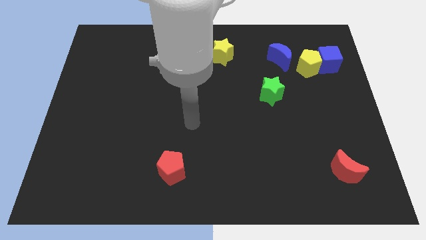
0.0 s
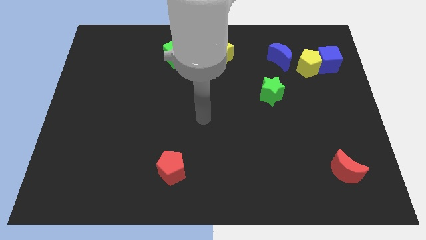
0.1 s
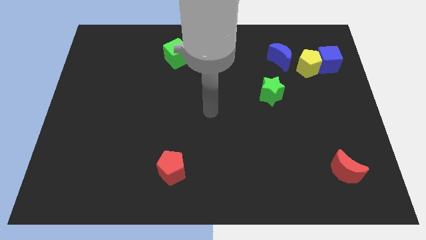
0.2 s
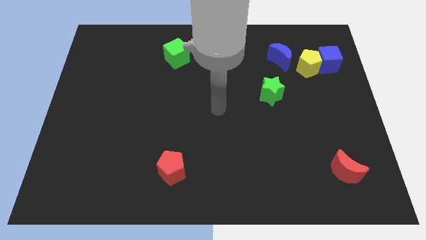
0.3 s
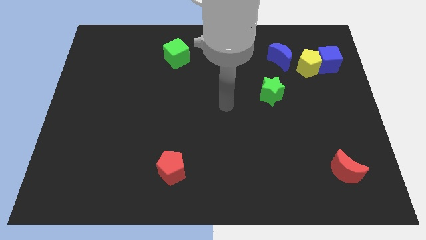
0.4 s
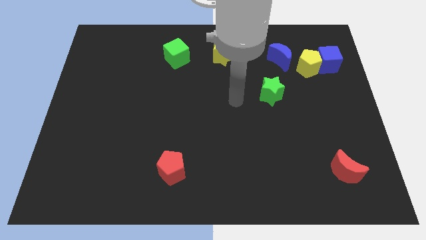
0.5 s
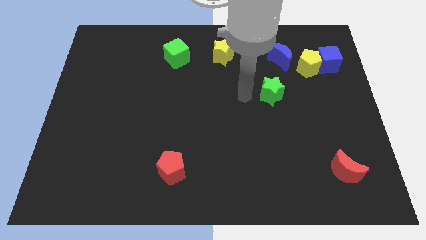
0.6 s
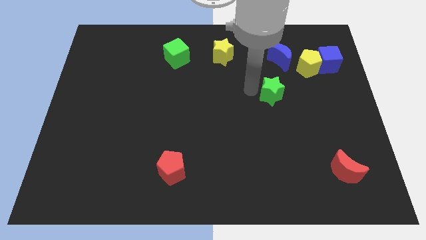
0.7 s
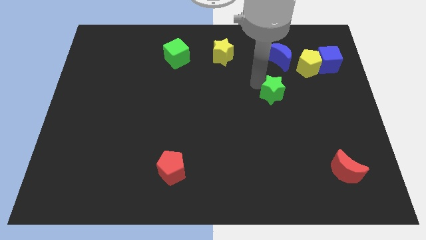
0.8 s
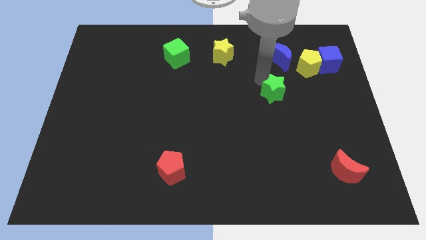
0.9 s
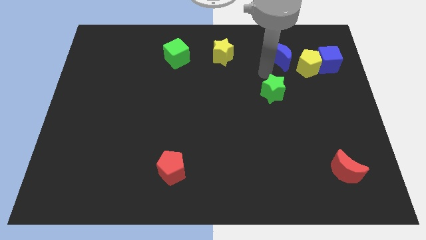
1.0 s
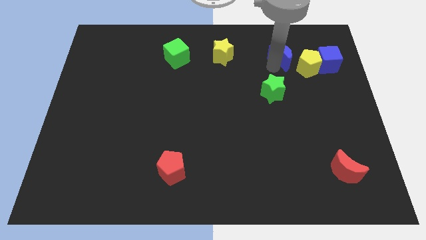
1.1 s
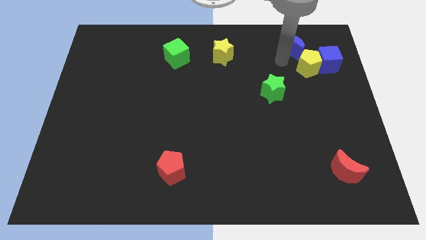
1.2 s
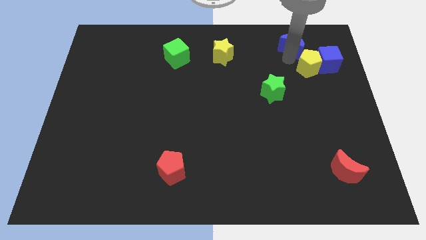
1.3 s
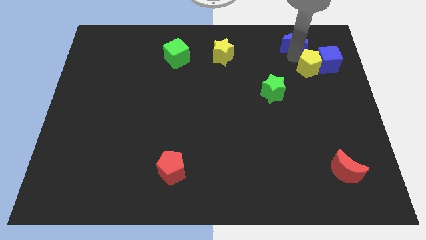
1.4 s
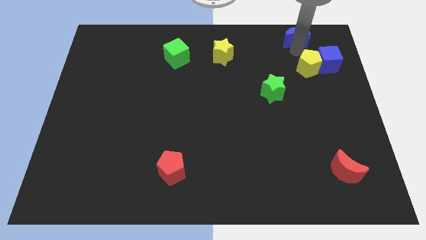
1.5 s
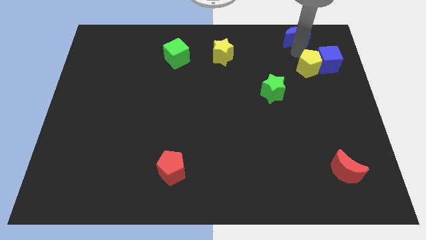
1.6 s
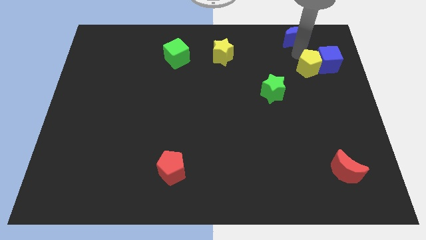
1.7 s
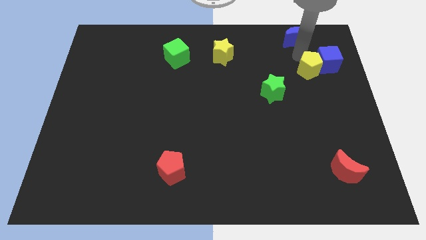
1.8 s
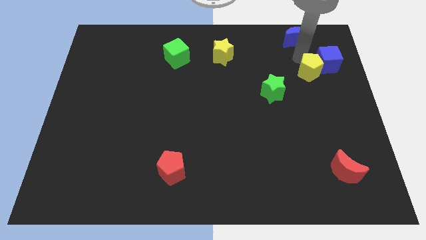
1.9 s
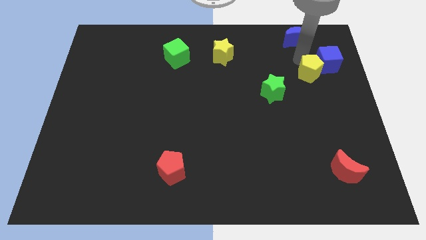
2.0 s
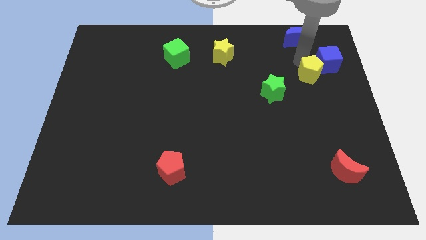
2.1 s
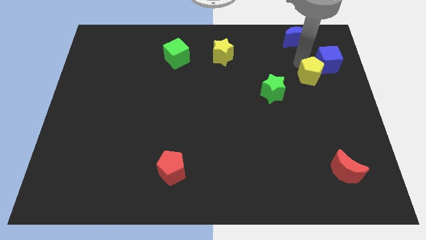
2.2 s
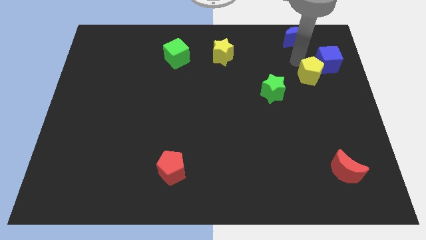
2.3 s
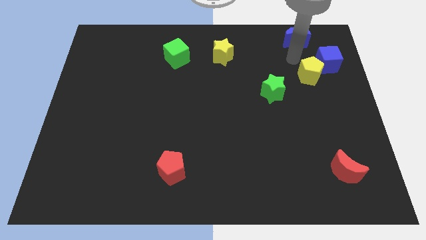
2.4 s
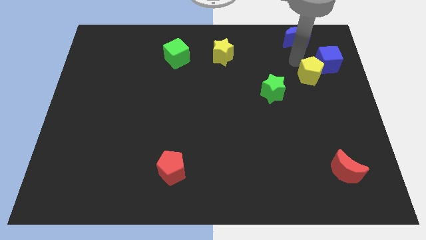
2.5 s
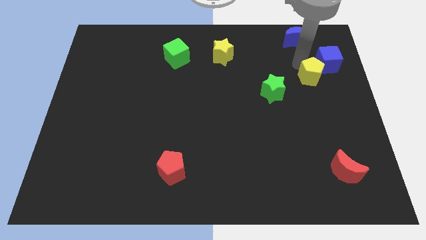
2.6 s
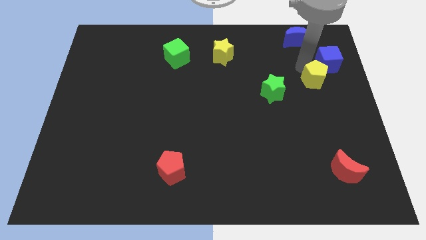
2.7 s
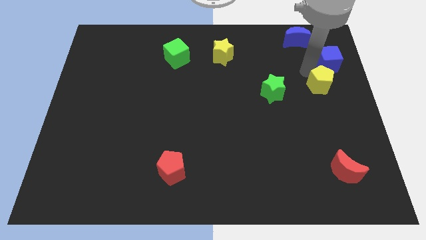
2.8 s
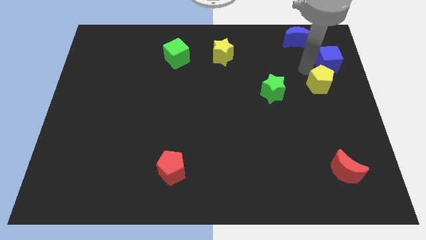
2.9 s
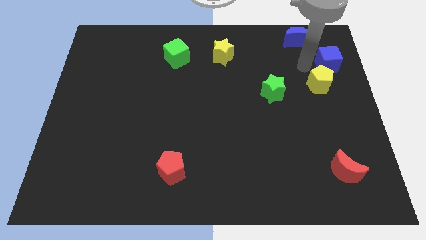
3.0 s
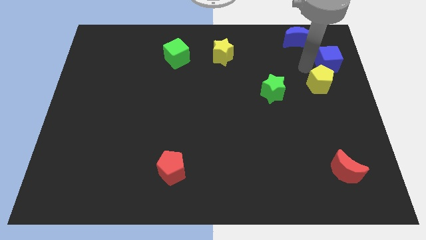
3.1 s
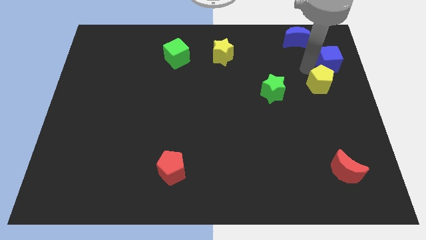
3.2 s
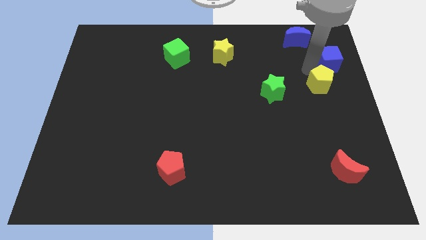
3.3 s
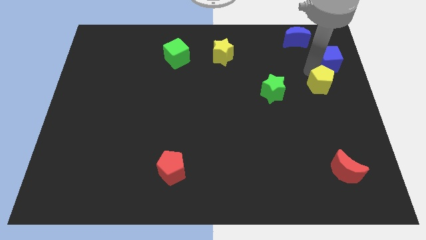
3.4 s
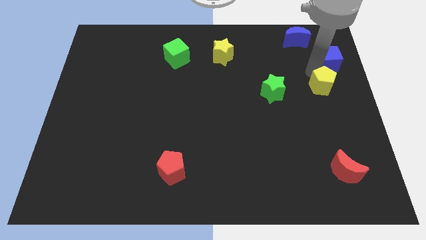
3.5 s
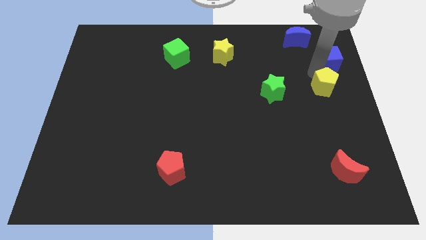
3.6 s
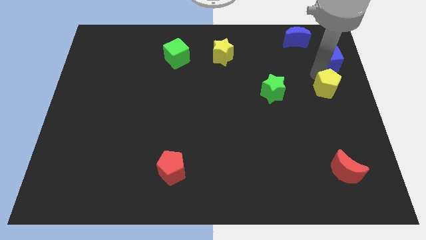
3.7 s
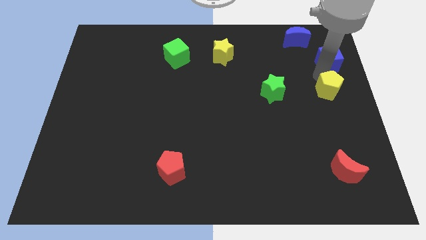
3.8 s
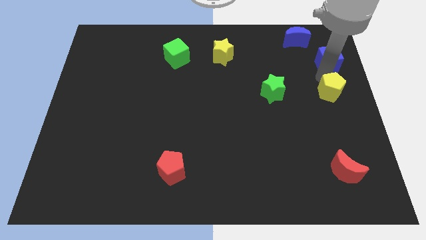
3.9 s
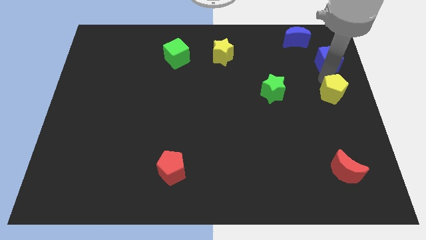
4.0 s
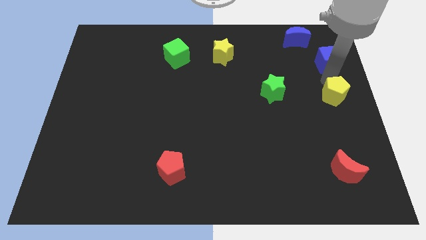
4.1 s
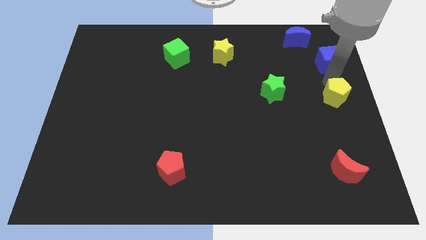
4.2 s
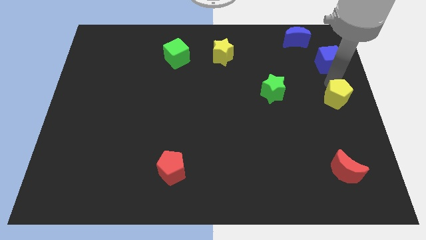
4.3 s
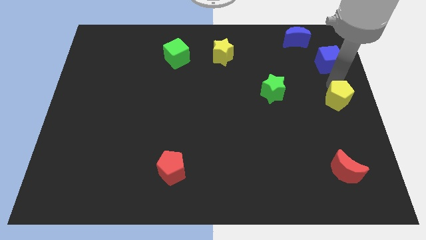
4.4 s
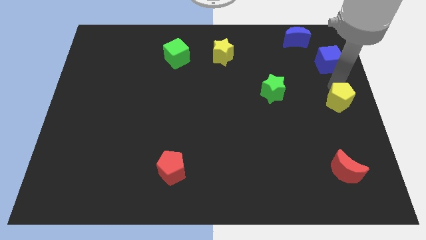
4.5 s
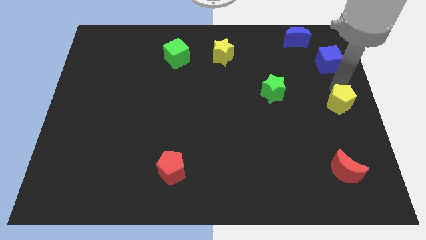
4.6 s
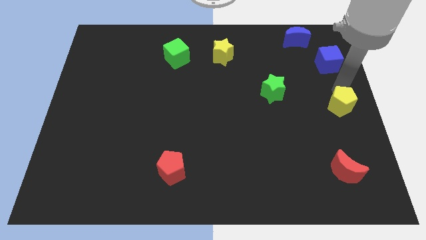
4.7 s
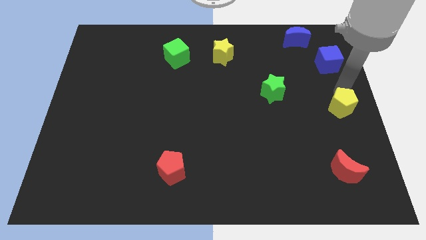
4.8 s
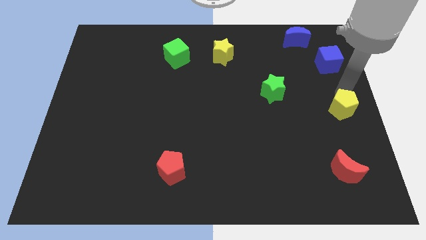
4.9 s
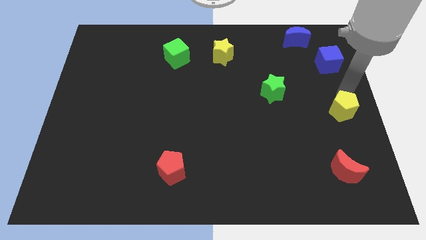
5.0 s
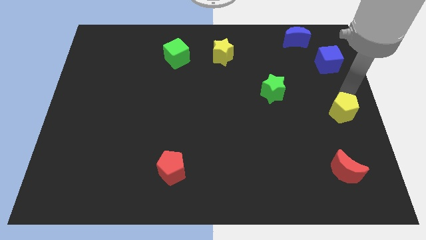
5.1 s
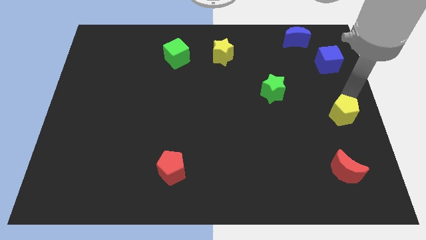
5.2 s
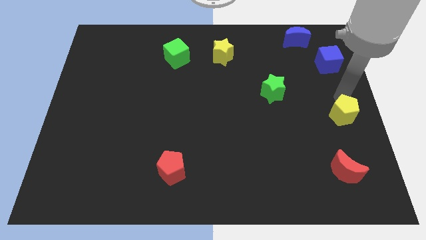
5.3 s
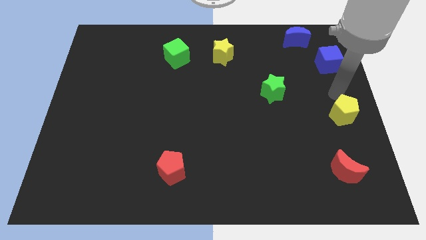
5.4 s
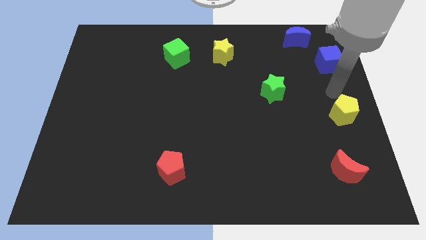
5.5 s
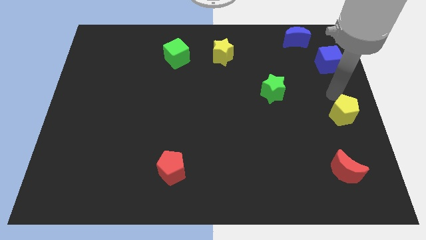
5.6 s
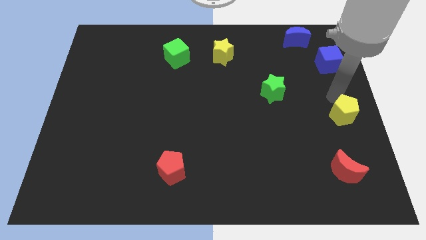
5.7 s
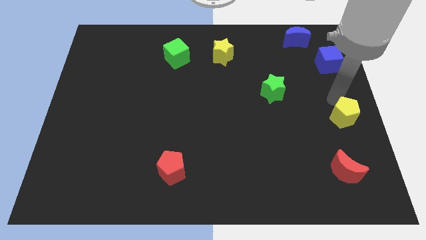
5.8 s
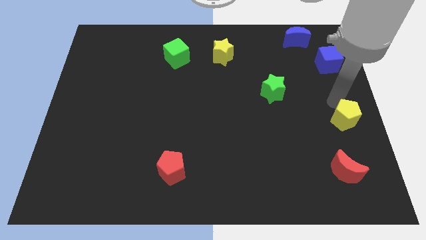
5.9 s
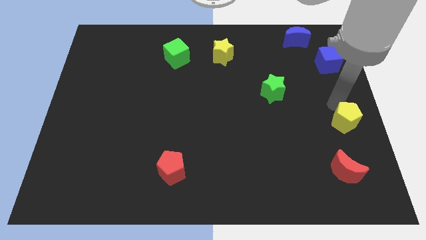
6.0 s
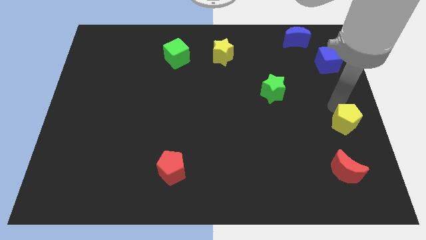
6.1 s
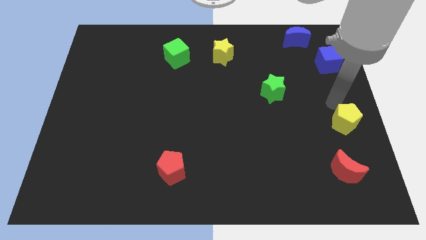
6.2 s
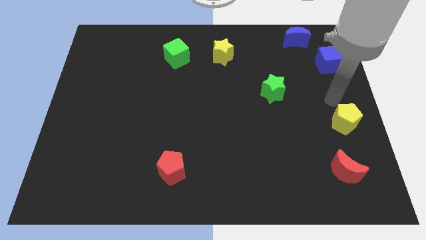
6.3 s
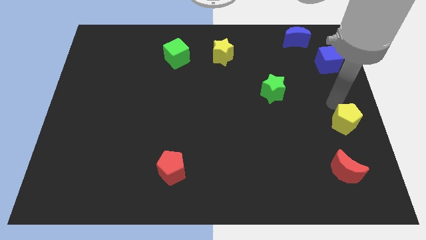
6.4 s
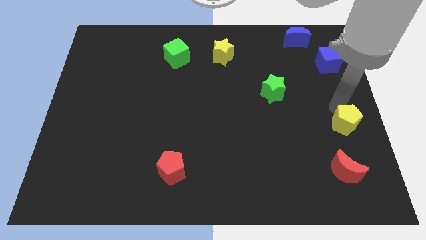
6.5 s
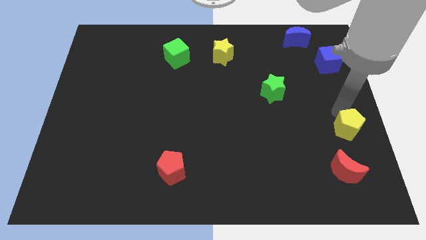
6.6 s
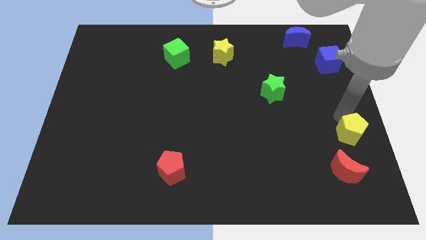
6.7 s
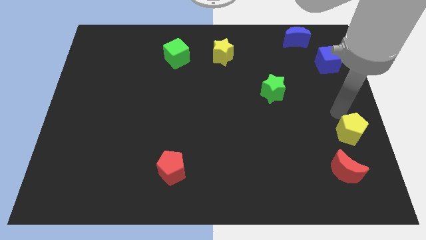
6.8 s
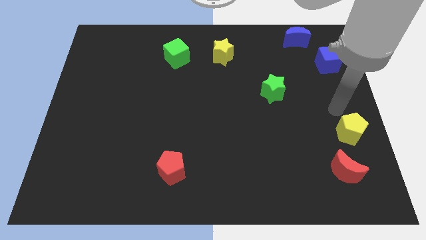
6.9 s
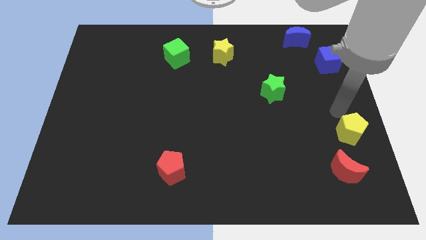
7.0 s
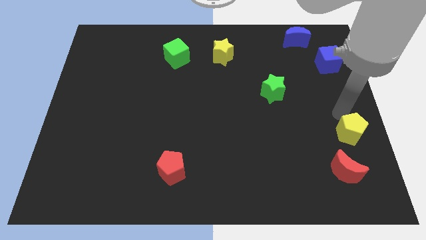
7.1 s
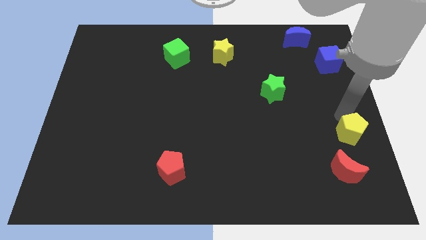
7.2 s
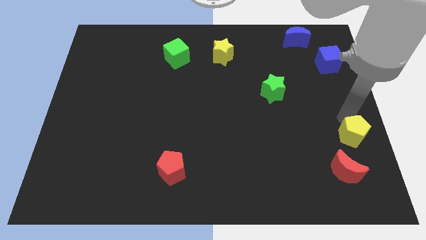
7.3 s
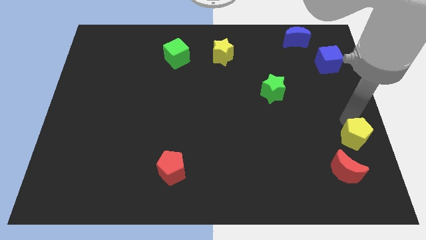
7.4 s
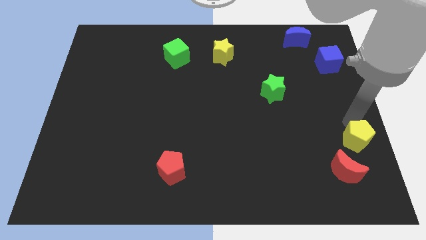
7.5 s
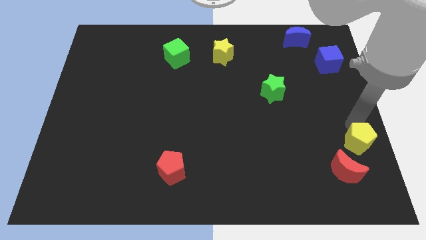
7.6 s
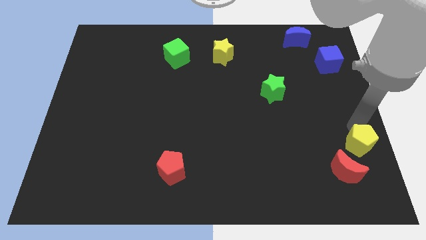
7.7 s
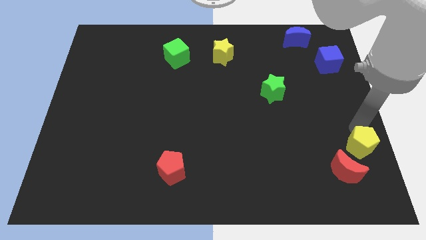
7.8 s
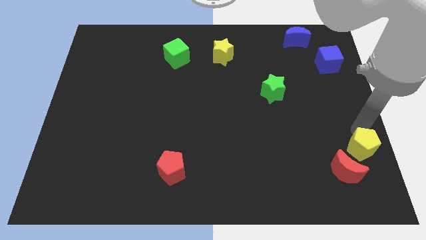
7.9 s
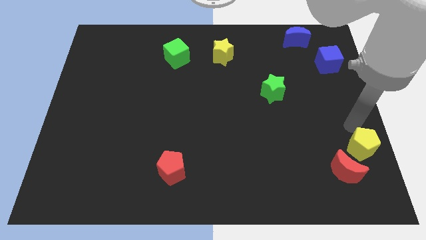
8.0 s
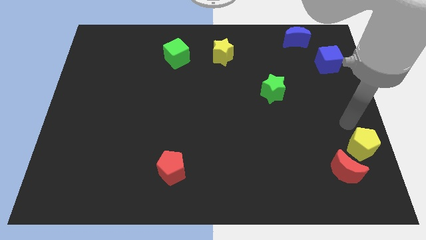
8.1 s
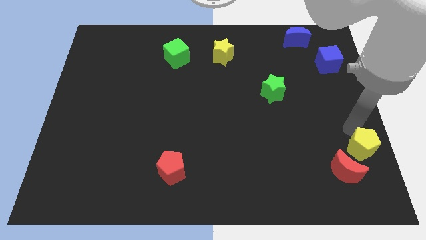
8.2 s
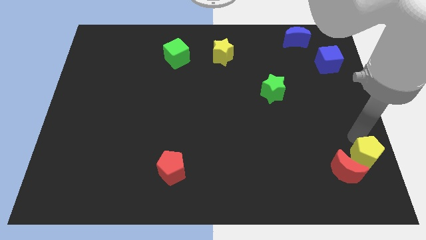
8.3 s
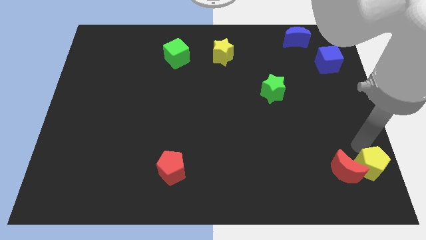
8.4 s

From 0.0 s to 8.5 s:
slide the yellow pentagon to the bottom right corner
